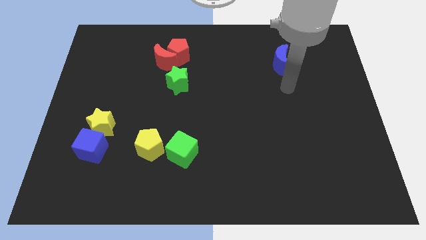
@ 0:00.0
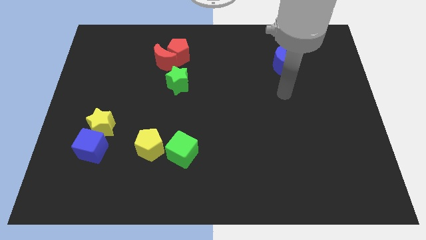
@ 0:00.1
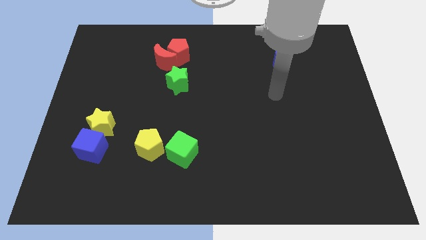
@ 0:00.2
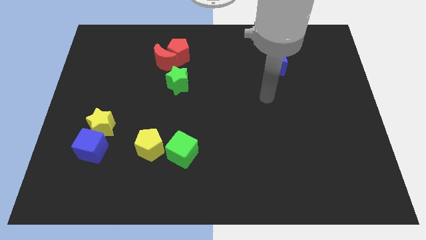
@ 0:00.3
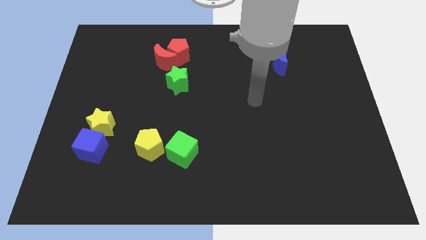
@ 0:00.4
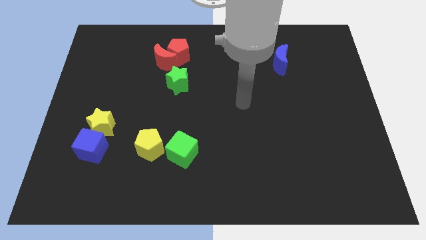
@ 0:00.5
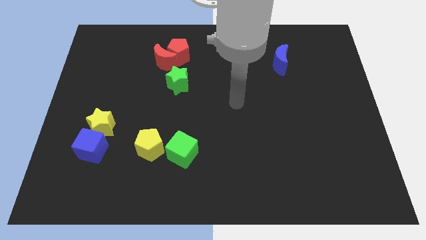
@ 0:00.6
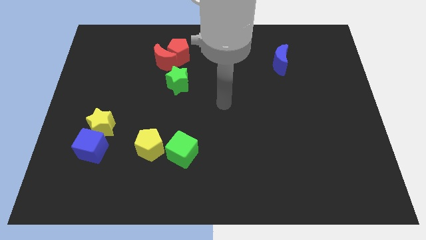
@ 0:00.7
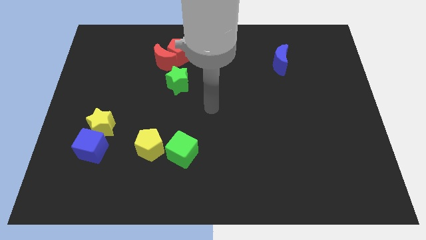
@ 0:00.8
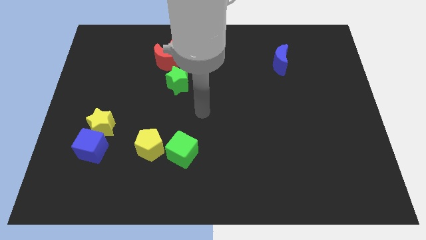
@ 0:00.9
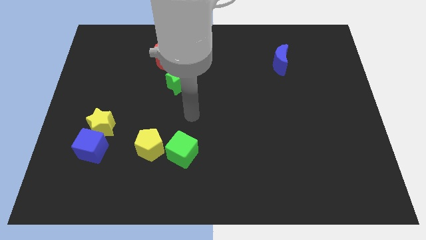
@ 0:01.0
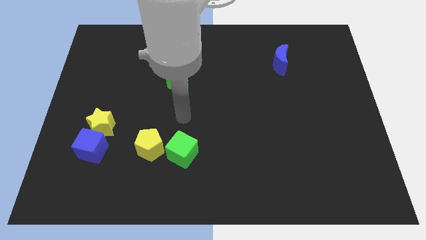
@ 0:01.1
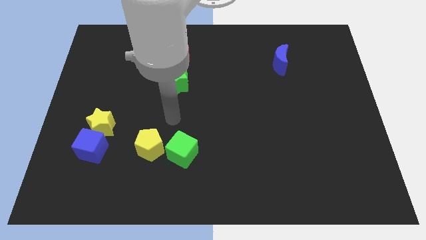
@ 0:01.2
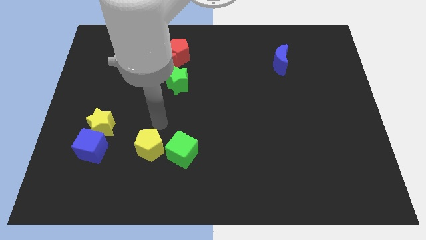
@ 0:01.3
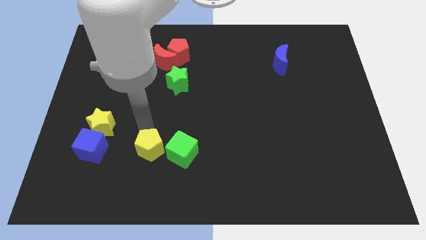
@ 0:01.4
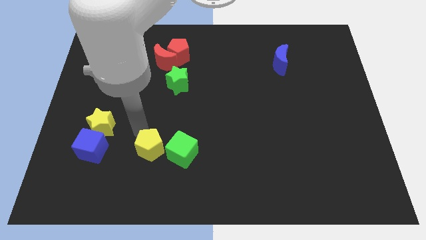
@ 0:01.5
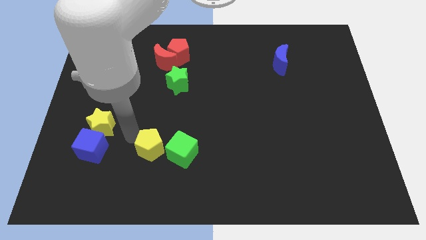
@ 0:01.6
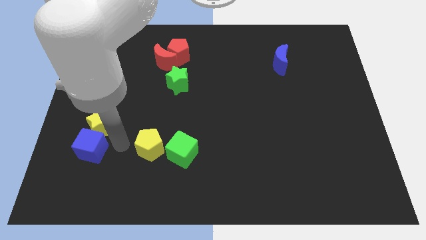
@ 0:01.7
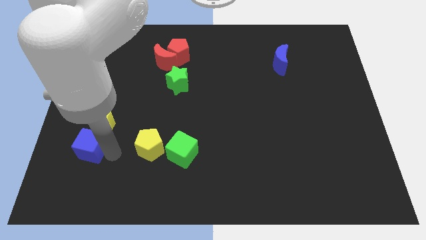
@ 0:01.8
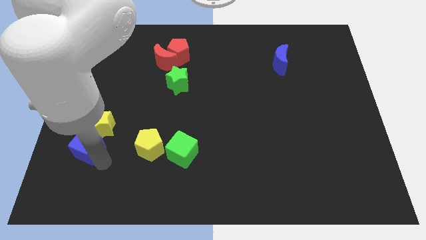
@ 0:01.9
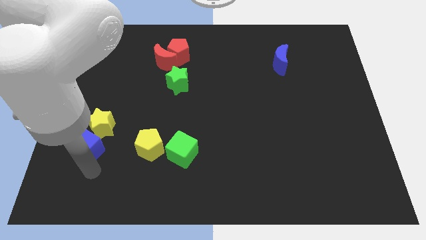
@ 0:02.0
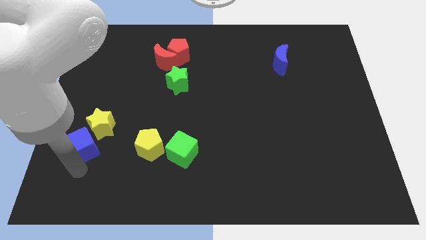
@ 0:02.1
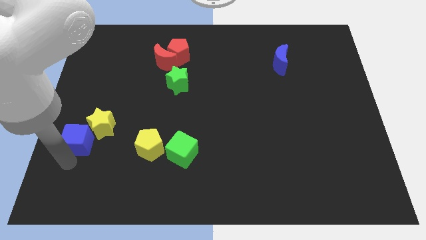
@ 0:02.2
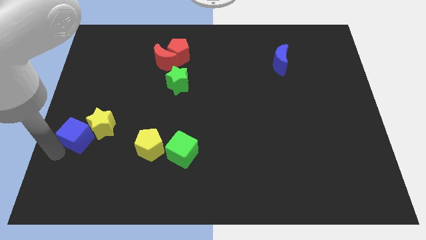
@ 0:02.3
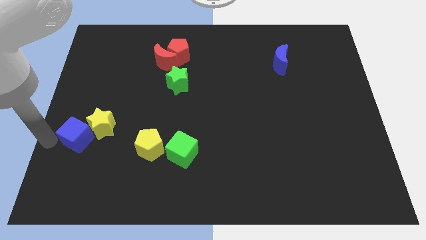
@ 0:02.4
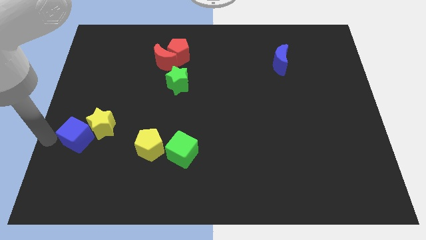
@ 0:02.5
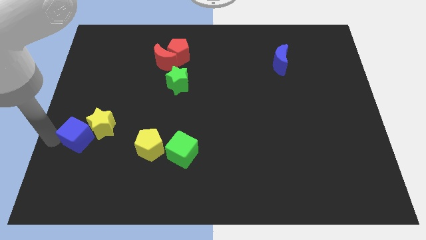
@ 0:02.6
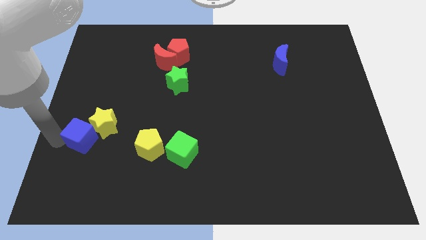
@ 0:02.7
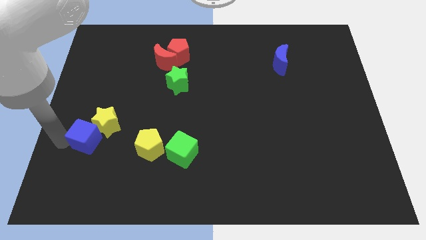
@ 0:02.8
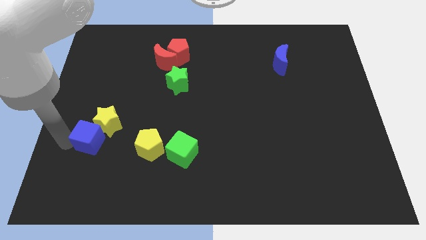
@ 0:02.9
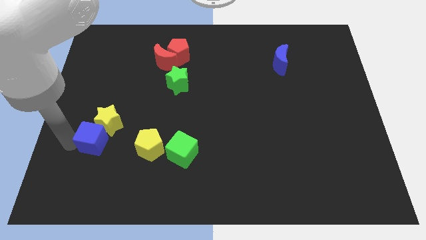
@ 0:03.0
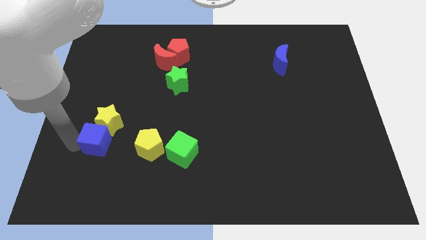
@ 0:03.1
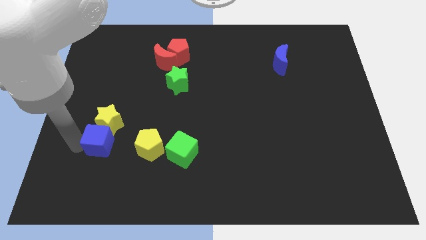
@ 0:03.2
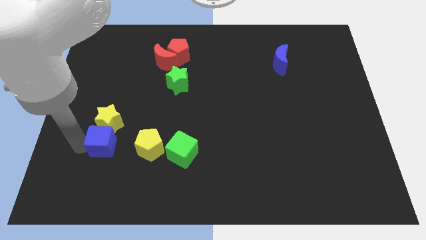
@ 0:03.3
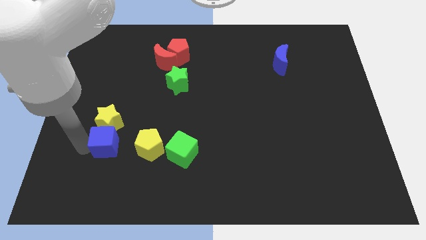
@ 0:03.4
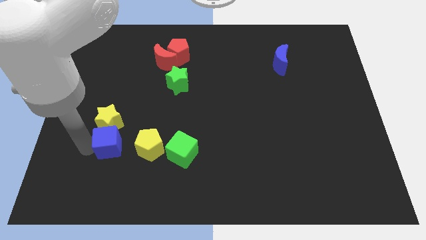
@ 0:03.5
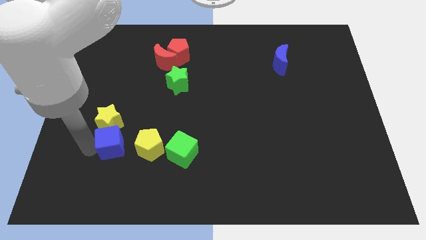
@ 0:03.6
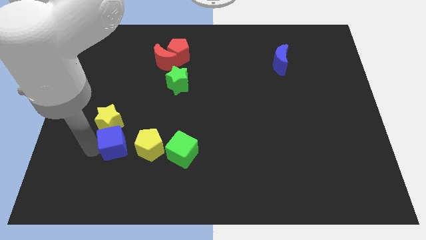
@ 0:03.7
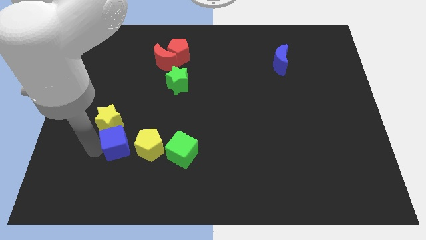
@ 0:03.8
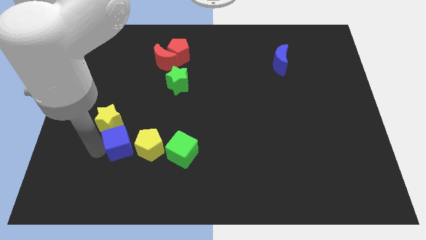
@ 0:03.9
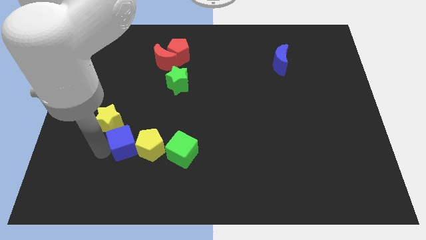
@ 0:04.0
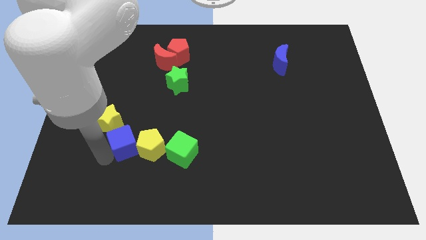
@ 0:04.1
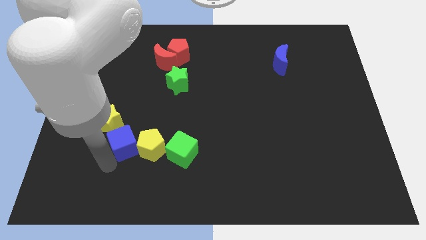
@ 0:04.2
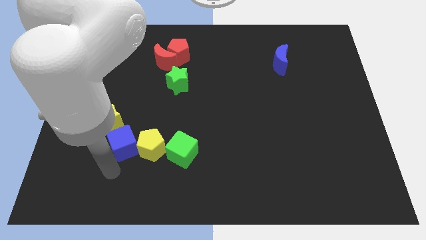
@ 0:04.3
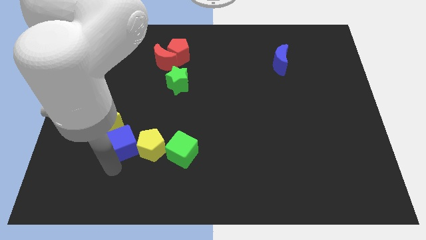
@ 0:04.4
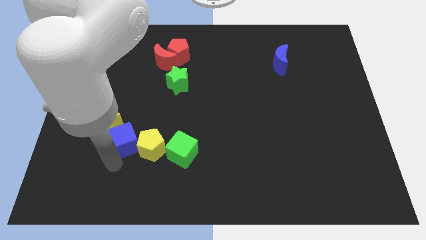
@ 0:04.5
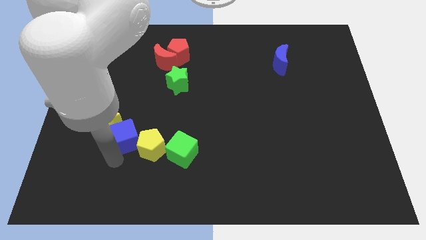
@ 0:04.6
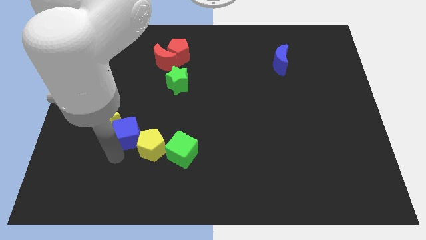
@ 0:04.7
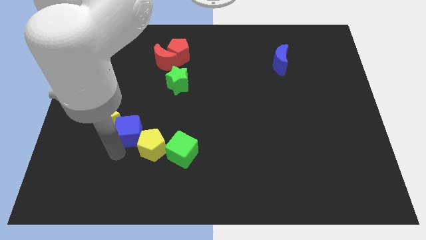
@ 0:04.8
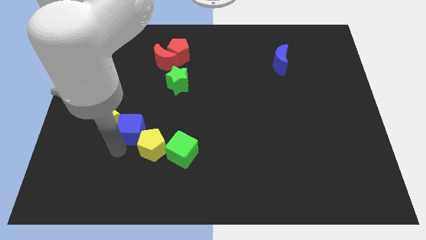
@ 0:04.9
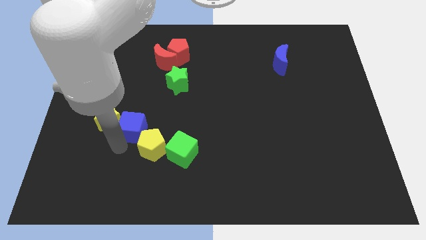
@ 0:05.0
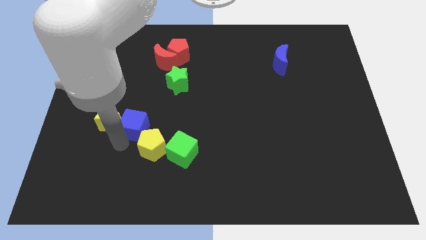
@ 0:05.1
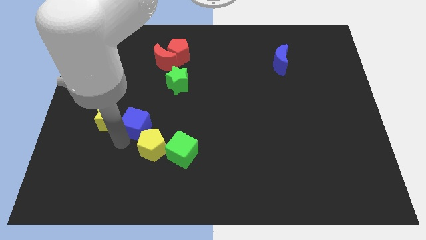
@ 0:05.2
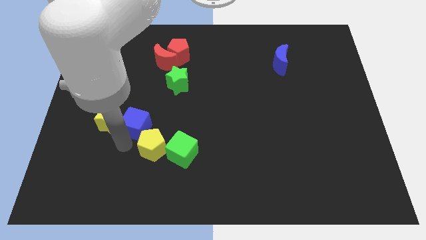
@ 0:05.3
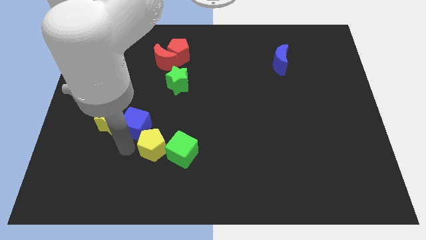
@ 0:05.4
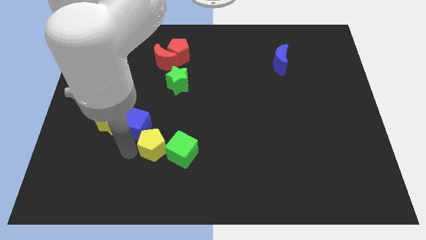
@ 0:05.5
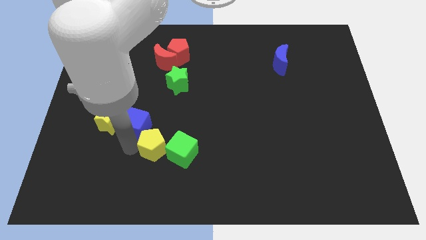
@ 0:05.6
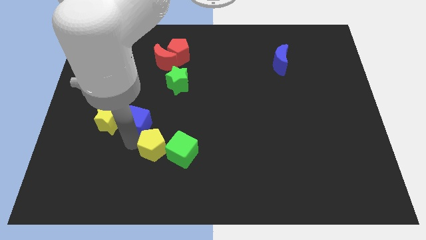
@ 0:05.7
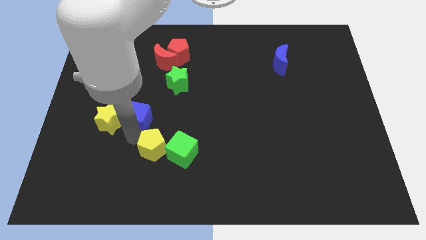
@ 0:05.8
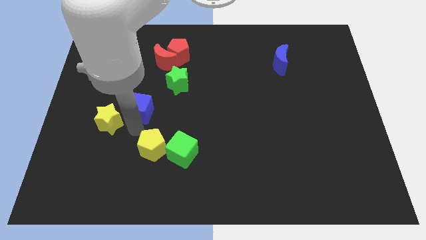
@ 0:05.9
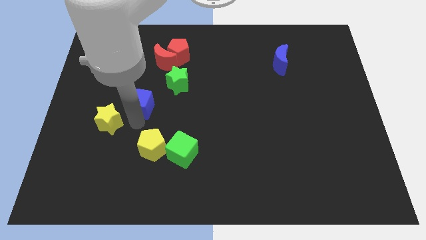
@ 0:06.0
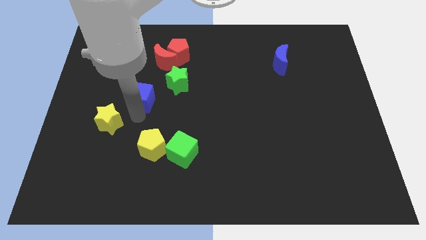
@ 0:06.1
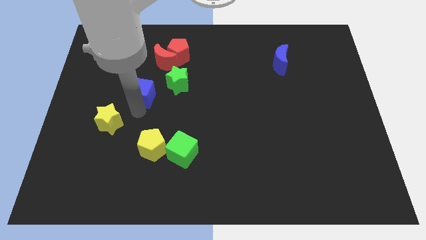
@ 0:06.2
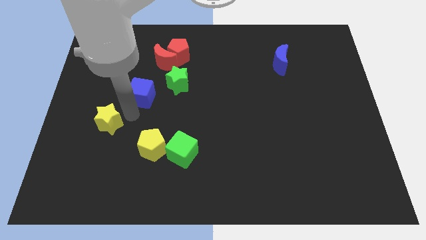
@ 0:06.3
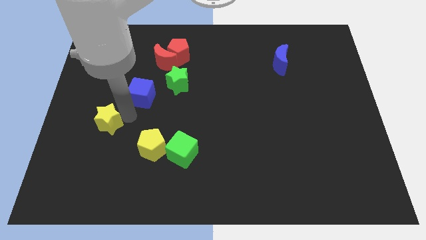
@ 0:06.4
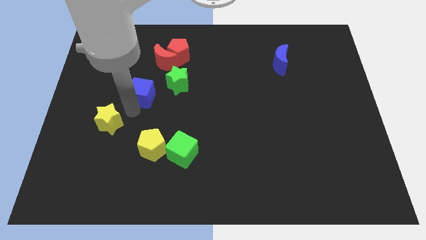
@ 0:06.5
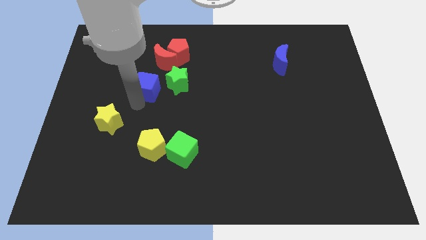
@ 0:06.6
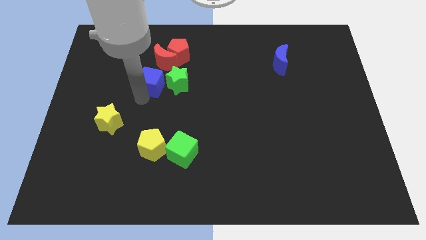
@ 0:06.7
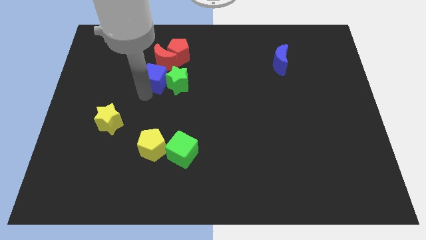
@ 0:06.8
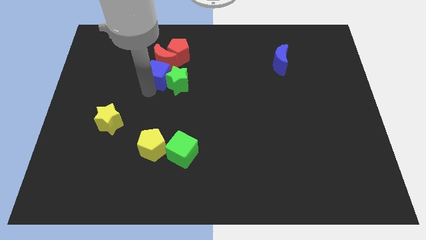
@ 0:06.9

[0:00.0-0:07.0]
move the blue cube close to the red moon
